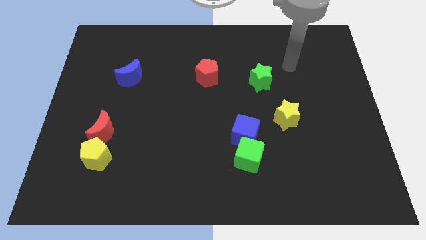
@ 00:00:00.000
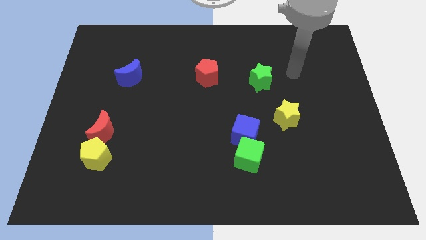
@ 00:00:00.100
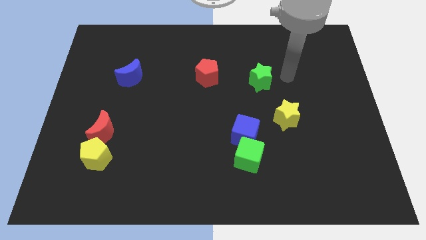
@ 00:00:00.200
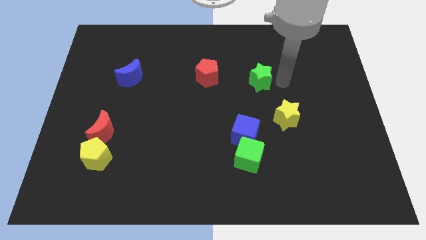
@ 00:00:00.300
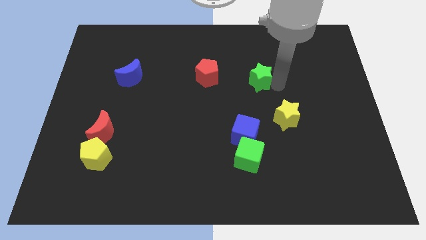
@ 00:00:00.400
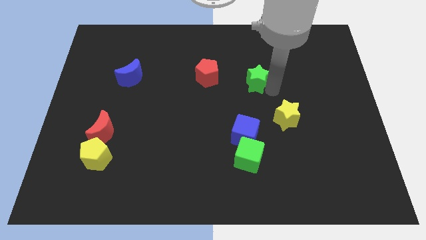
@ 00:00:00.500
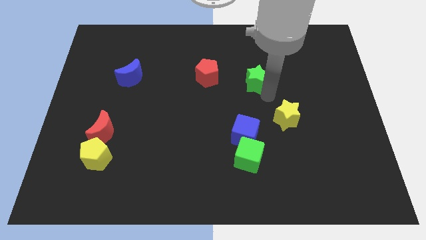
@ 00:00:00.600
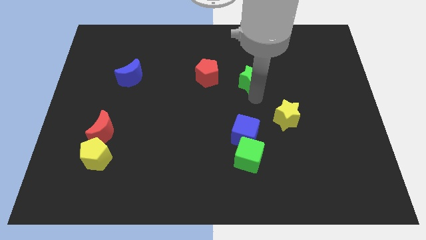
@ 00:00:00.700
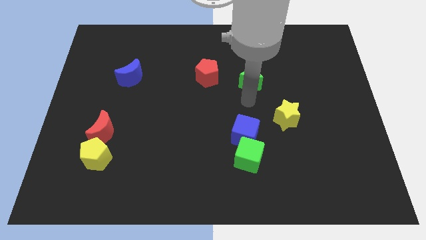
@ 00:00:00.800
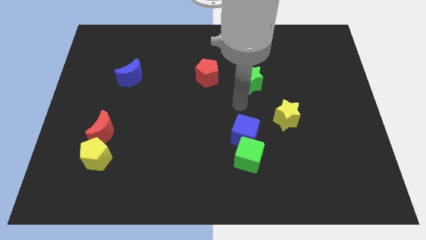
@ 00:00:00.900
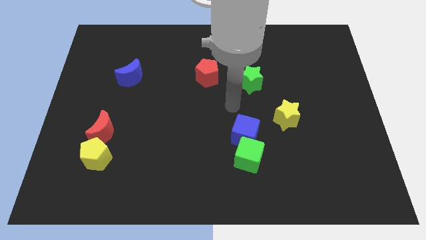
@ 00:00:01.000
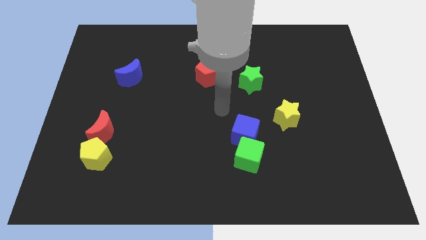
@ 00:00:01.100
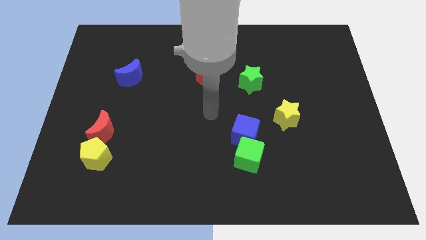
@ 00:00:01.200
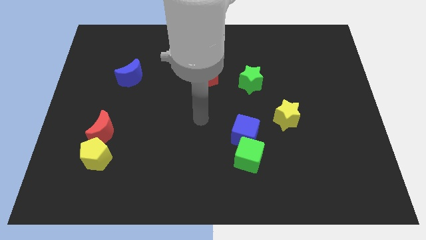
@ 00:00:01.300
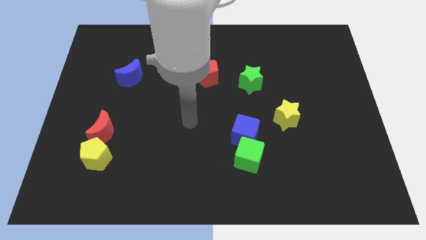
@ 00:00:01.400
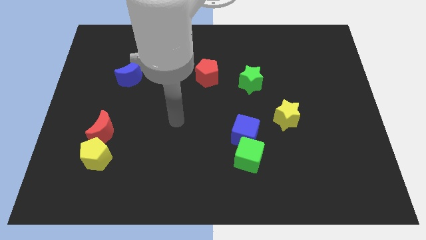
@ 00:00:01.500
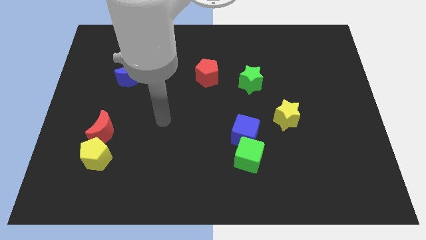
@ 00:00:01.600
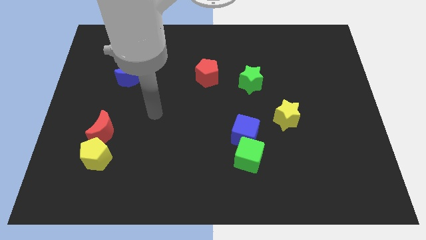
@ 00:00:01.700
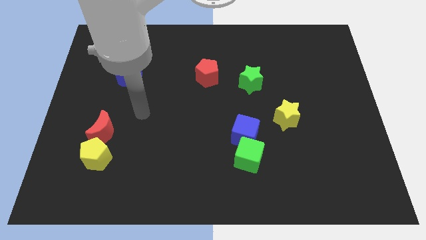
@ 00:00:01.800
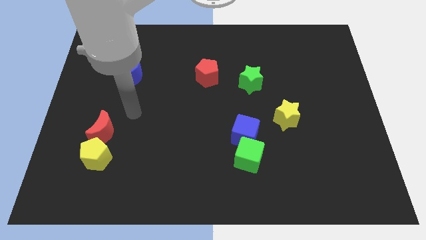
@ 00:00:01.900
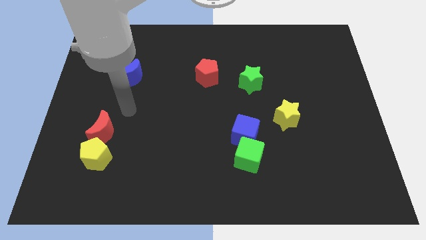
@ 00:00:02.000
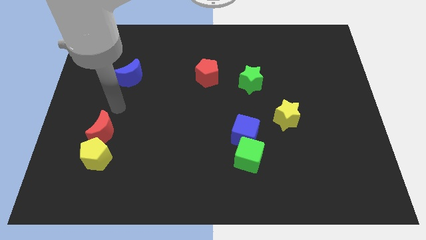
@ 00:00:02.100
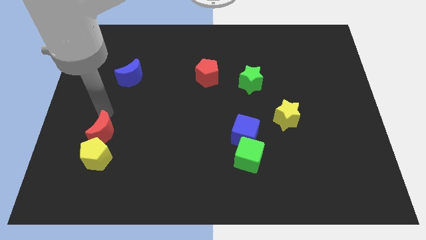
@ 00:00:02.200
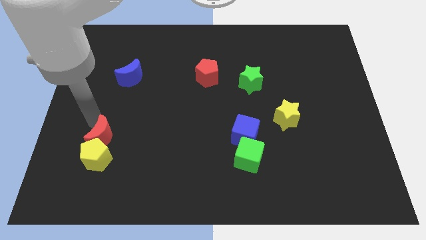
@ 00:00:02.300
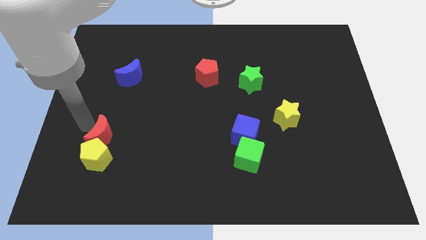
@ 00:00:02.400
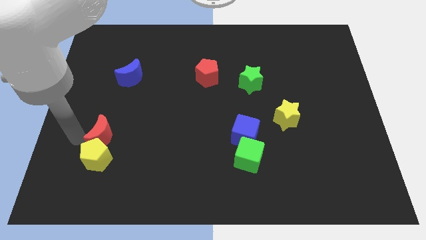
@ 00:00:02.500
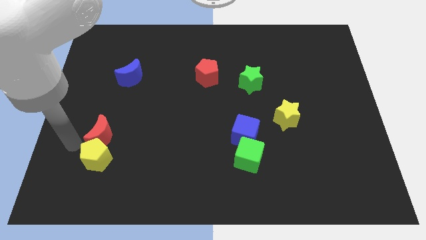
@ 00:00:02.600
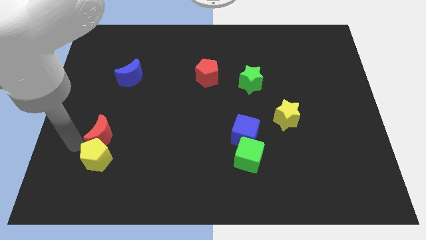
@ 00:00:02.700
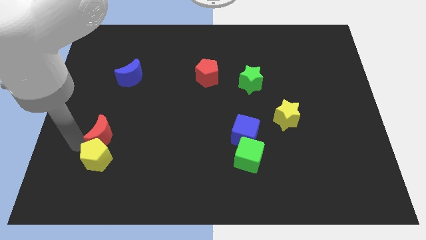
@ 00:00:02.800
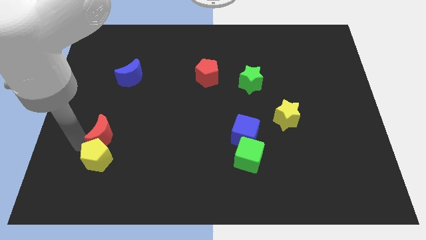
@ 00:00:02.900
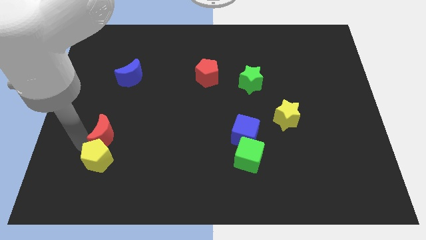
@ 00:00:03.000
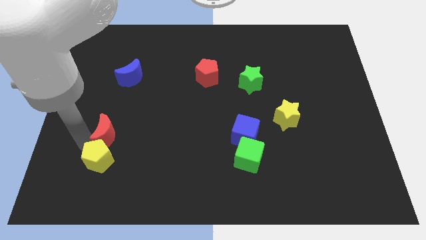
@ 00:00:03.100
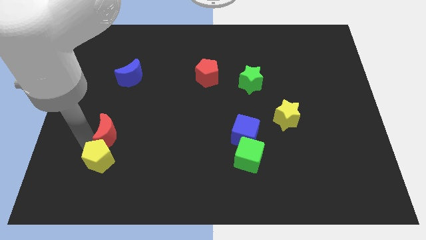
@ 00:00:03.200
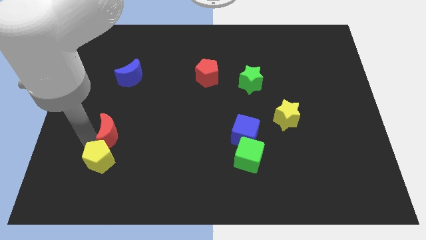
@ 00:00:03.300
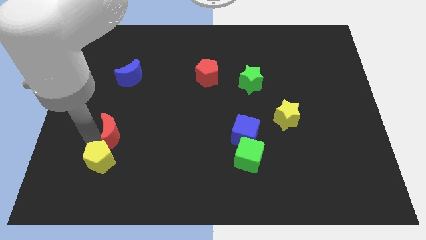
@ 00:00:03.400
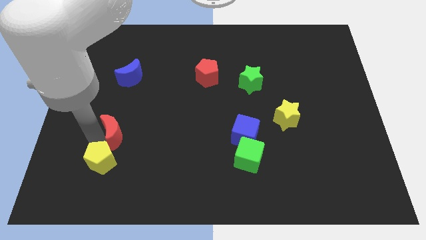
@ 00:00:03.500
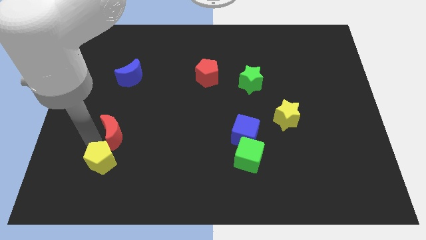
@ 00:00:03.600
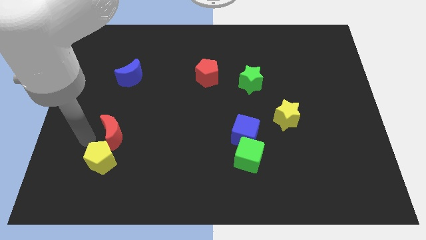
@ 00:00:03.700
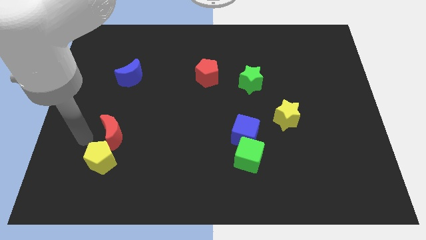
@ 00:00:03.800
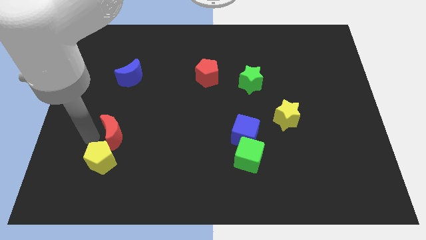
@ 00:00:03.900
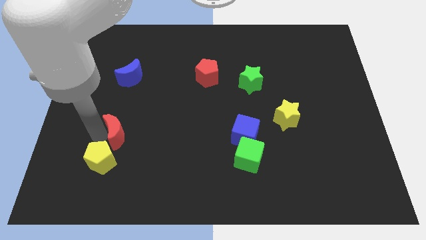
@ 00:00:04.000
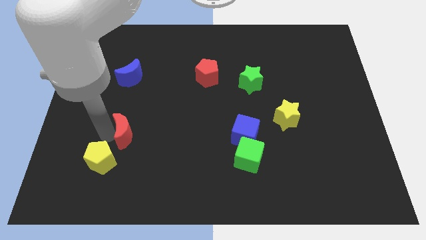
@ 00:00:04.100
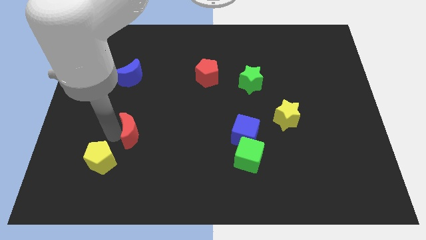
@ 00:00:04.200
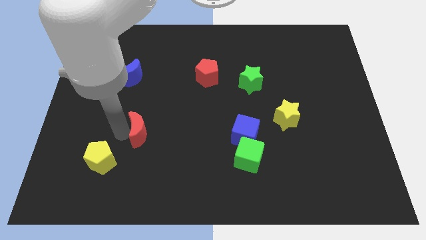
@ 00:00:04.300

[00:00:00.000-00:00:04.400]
move the red moon slightly to the right

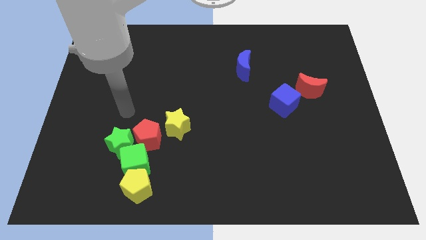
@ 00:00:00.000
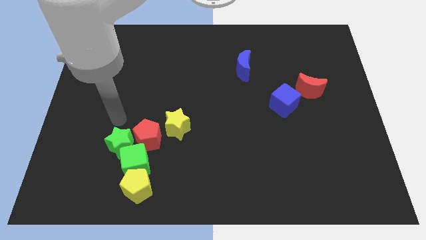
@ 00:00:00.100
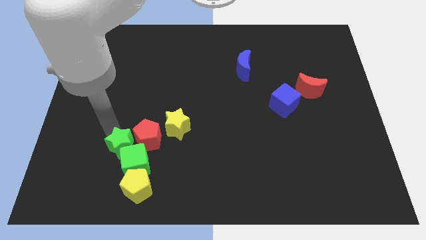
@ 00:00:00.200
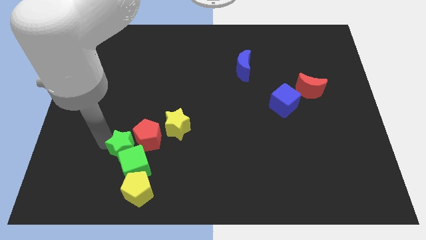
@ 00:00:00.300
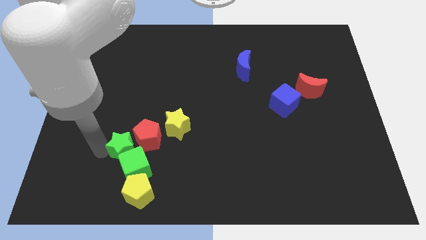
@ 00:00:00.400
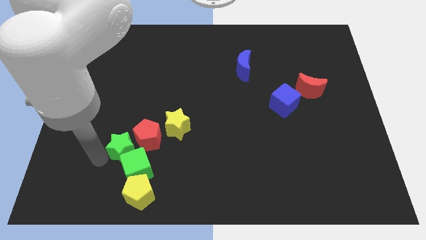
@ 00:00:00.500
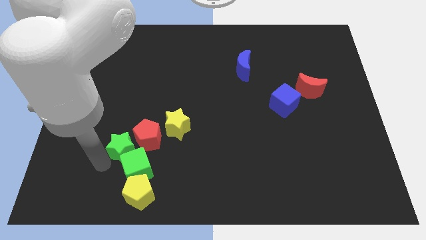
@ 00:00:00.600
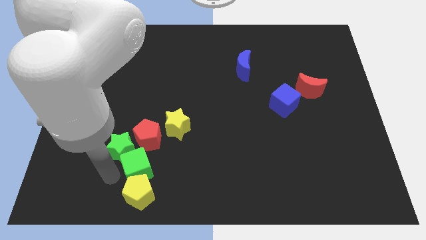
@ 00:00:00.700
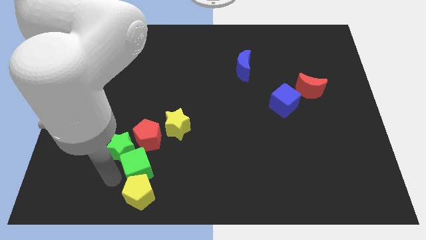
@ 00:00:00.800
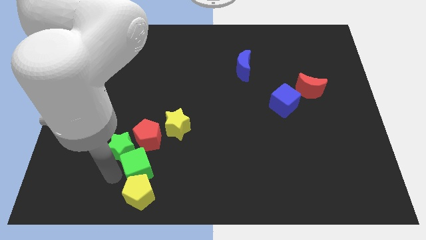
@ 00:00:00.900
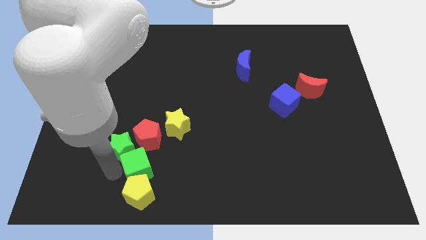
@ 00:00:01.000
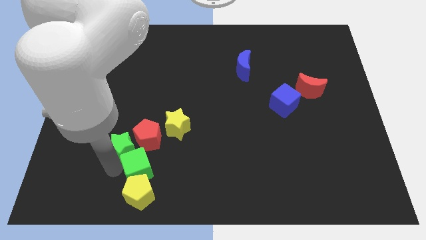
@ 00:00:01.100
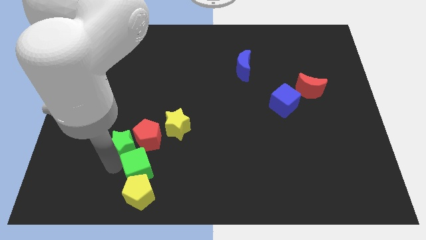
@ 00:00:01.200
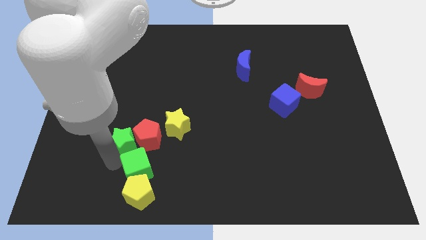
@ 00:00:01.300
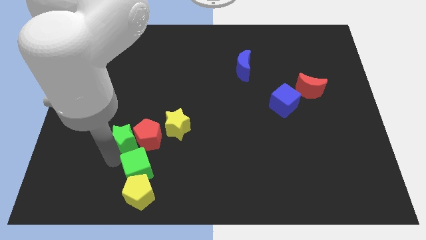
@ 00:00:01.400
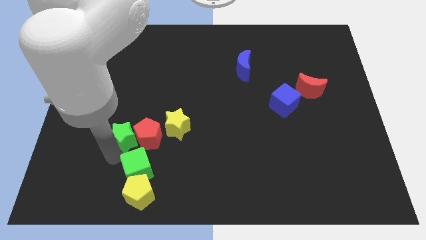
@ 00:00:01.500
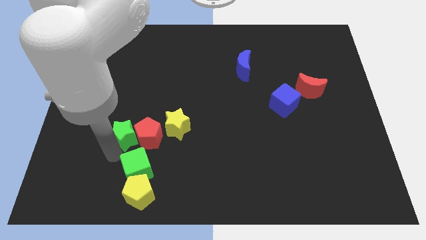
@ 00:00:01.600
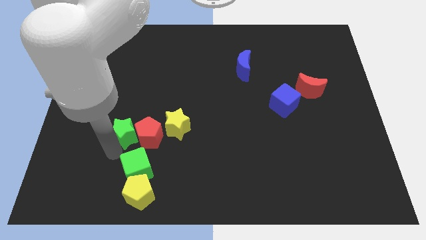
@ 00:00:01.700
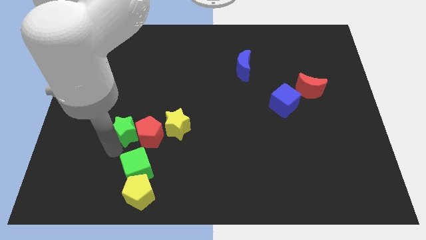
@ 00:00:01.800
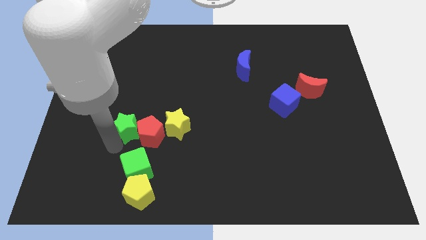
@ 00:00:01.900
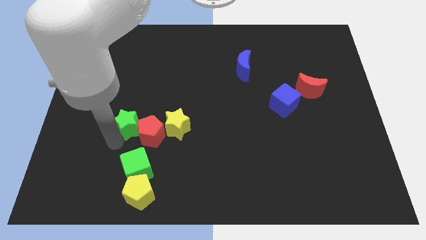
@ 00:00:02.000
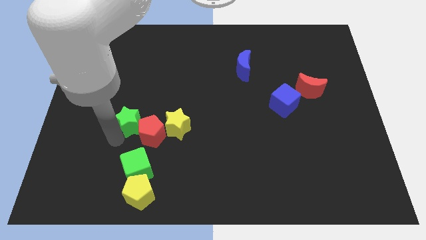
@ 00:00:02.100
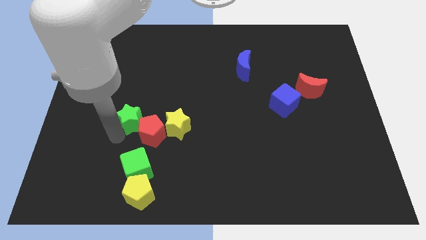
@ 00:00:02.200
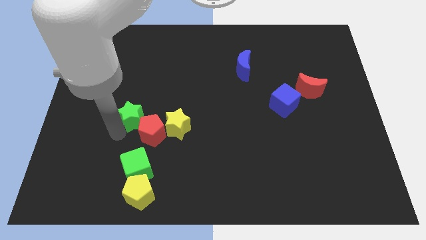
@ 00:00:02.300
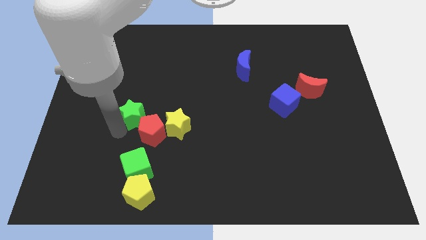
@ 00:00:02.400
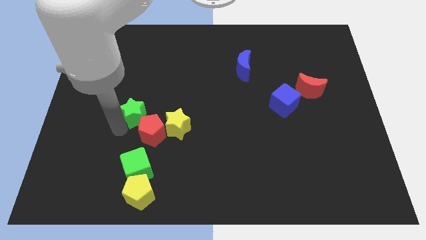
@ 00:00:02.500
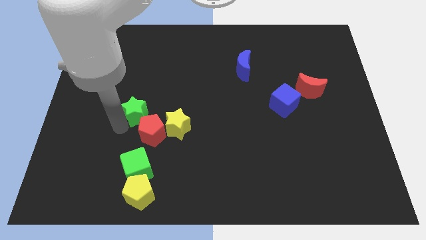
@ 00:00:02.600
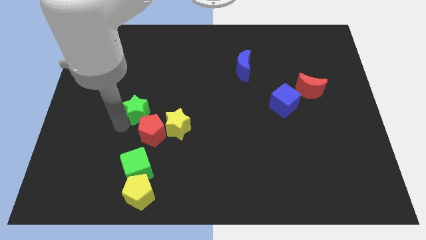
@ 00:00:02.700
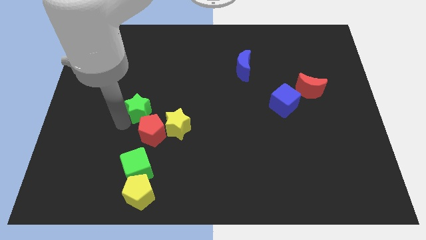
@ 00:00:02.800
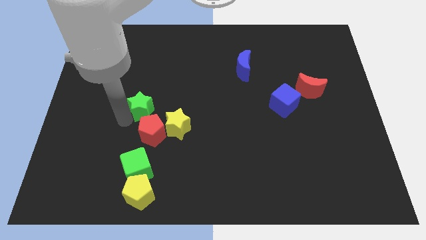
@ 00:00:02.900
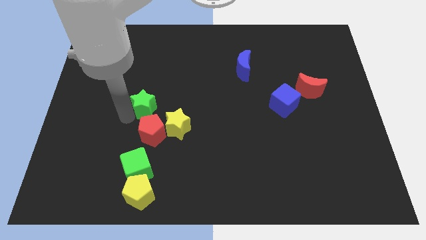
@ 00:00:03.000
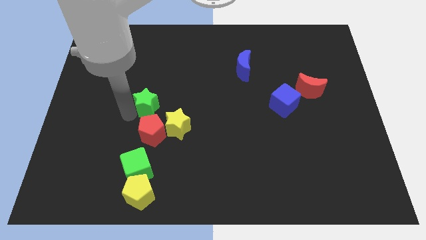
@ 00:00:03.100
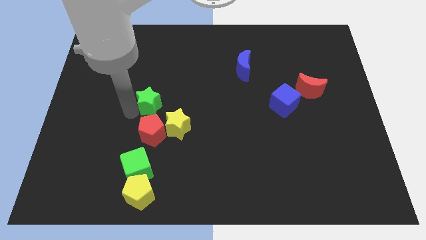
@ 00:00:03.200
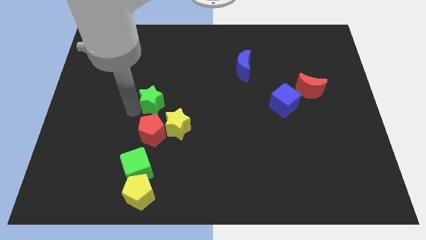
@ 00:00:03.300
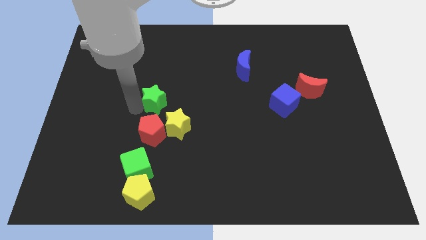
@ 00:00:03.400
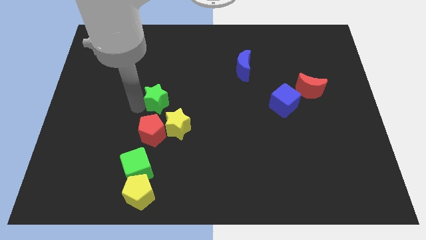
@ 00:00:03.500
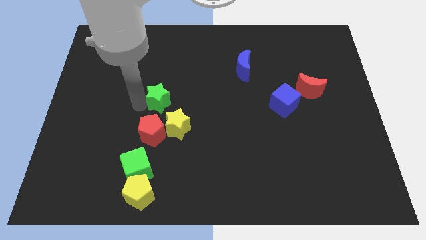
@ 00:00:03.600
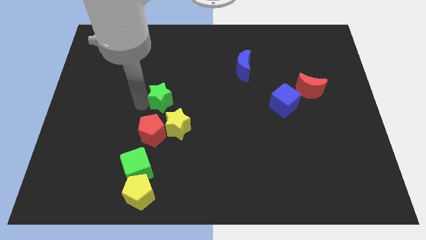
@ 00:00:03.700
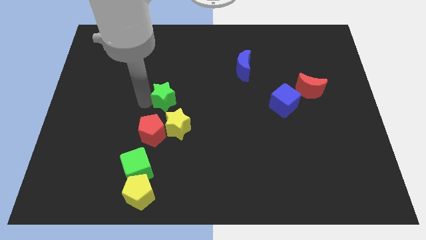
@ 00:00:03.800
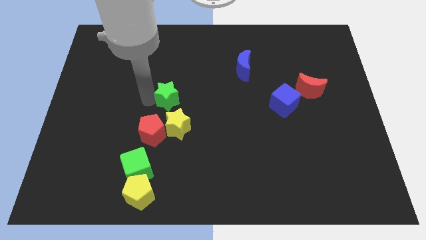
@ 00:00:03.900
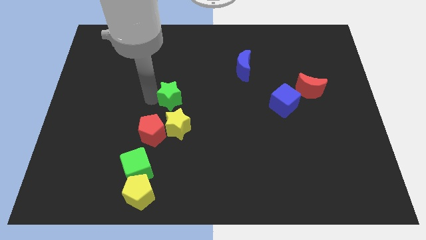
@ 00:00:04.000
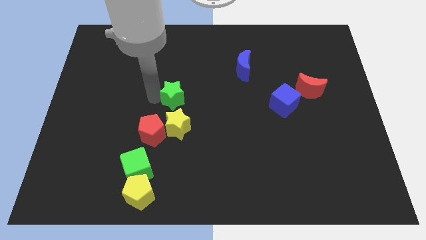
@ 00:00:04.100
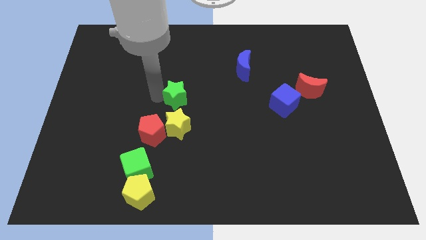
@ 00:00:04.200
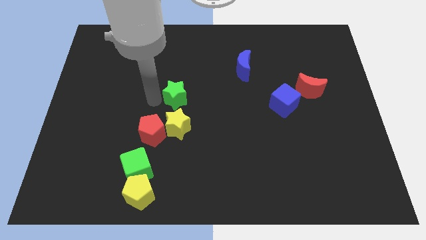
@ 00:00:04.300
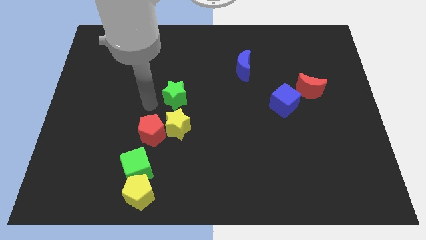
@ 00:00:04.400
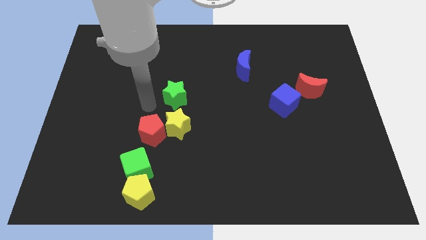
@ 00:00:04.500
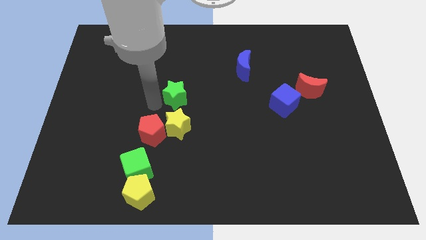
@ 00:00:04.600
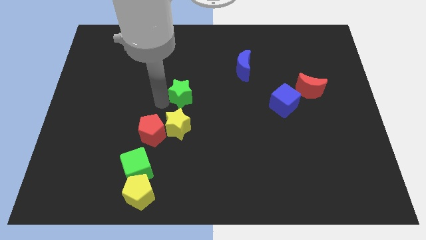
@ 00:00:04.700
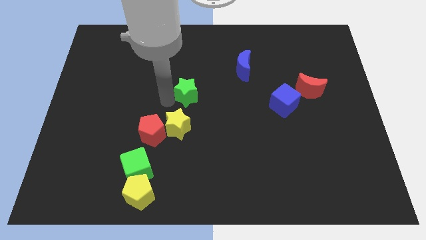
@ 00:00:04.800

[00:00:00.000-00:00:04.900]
move the green star diagonally up and to the right
